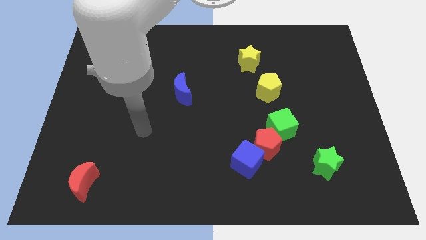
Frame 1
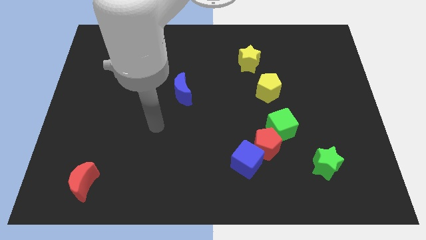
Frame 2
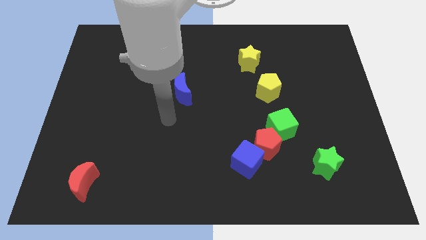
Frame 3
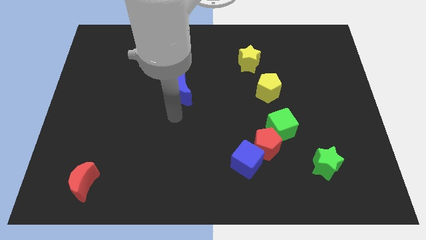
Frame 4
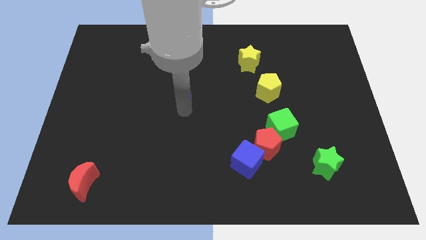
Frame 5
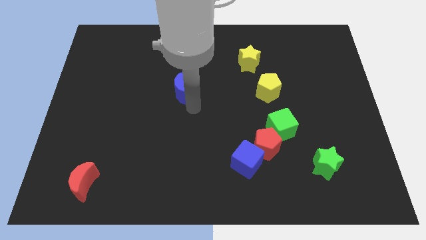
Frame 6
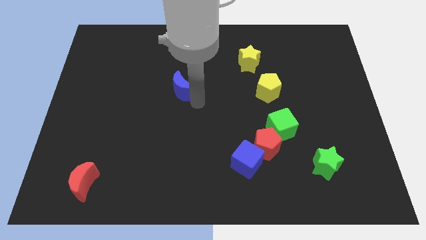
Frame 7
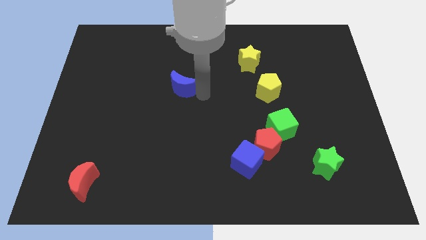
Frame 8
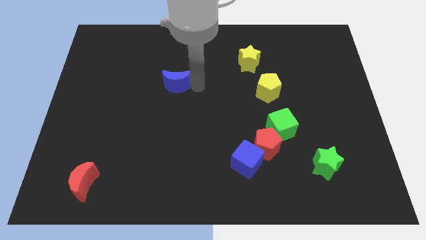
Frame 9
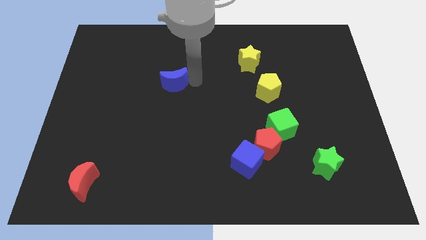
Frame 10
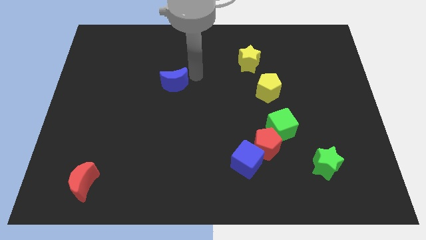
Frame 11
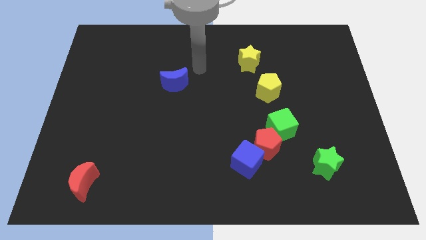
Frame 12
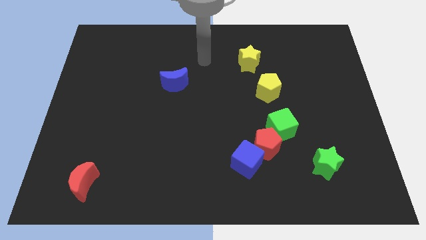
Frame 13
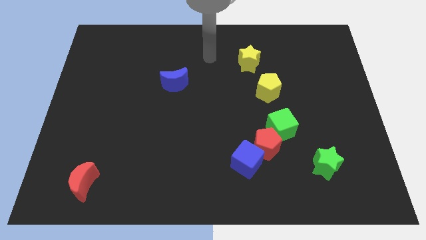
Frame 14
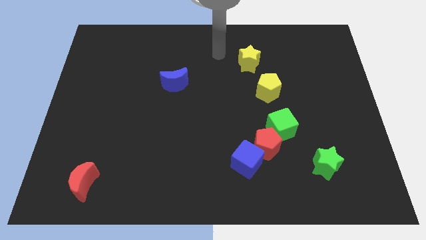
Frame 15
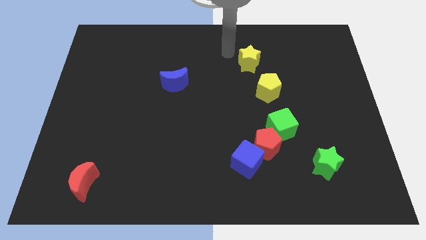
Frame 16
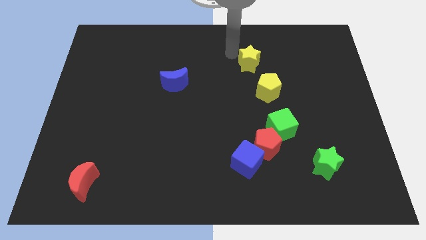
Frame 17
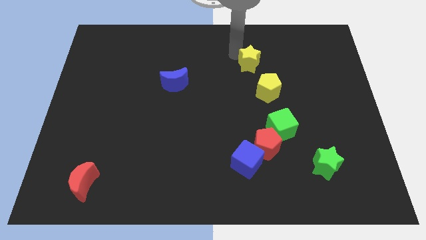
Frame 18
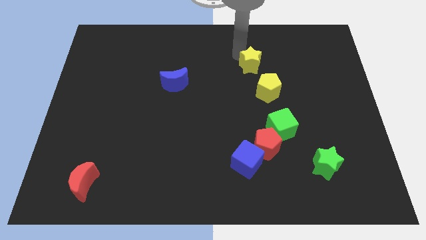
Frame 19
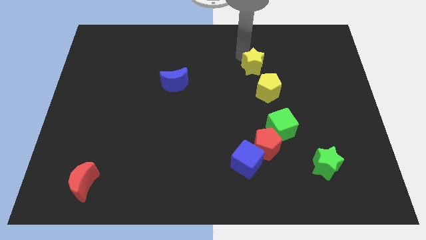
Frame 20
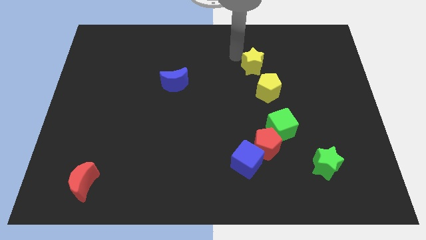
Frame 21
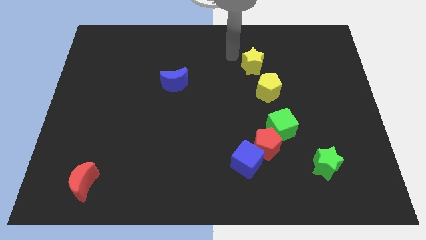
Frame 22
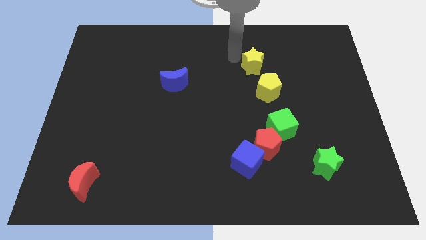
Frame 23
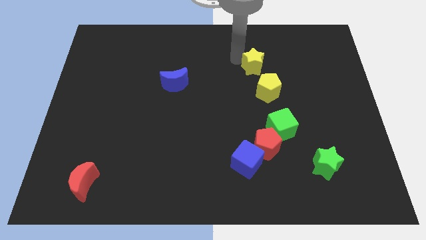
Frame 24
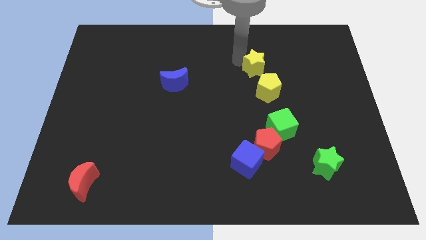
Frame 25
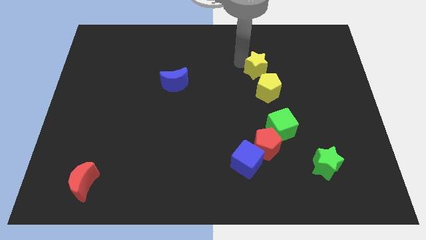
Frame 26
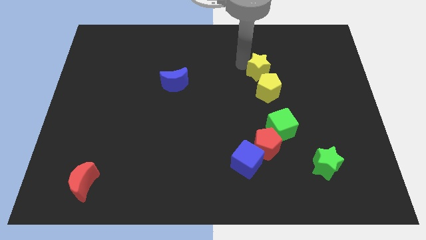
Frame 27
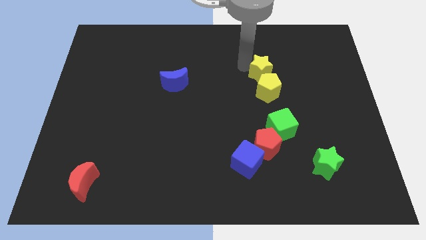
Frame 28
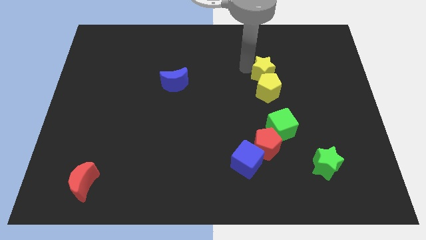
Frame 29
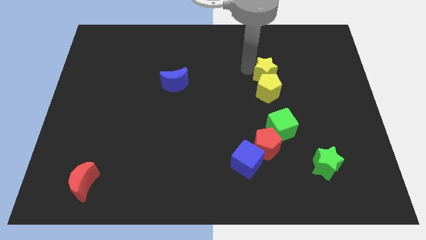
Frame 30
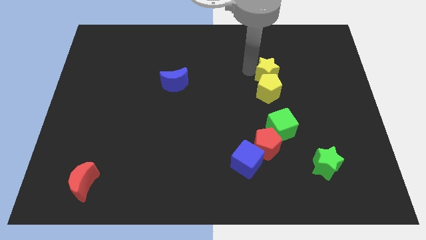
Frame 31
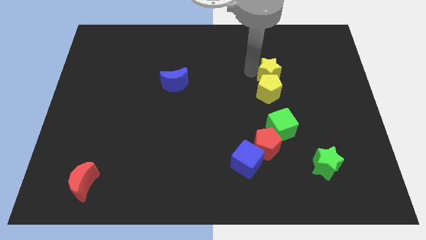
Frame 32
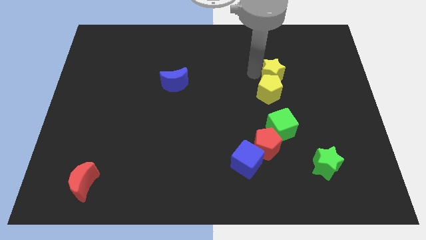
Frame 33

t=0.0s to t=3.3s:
move the yellow star a bit downwards and right

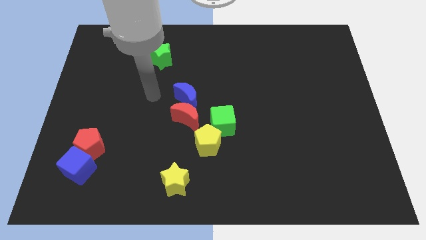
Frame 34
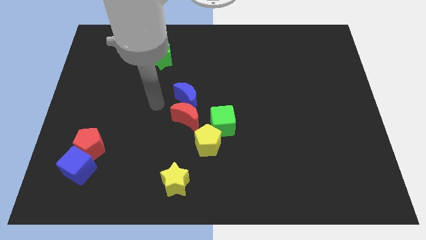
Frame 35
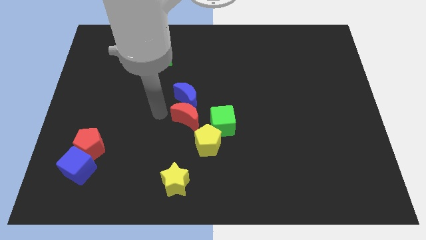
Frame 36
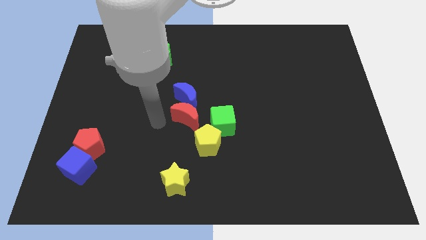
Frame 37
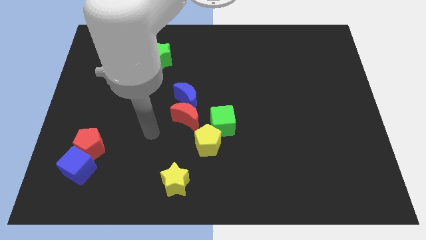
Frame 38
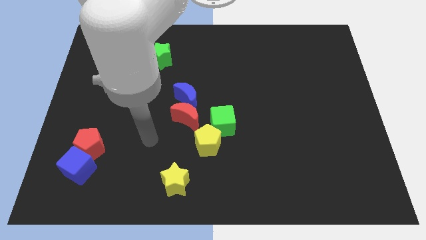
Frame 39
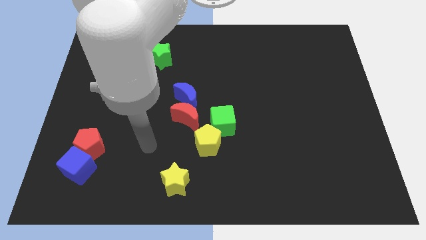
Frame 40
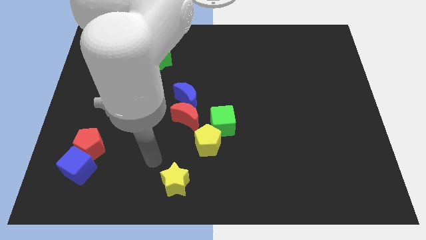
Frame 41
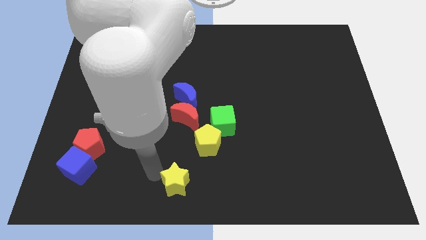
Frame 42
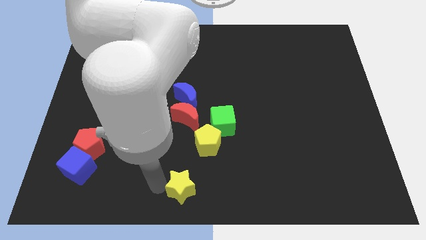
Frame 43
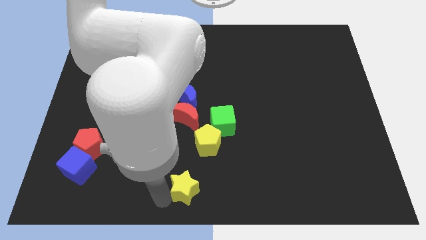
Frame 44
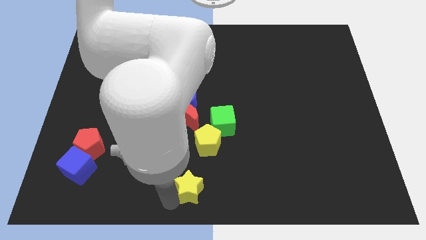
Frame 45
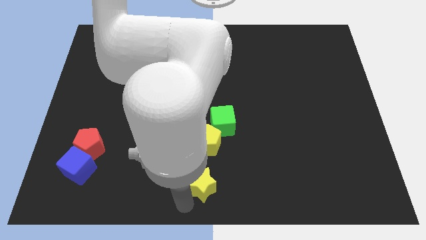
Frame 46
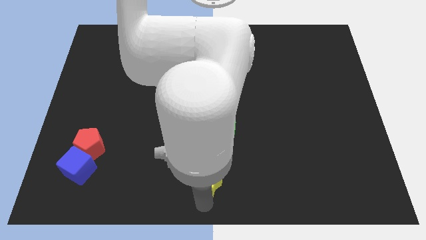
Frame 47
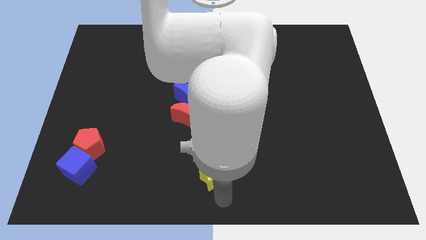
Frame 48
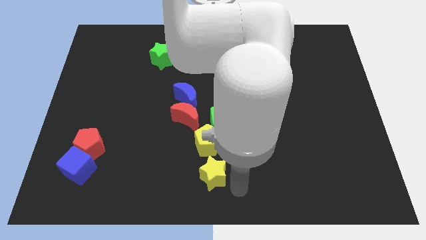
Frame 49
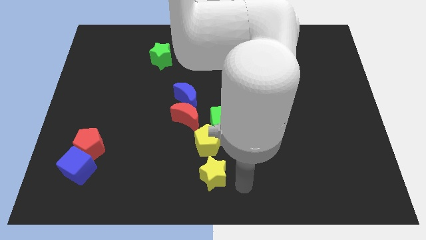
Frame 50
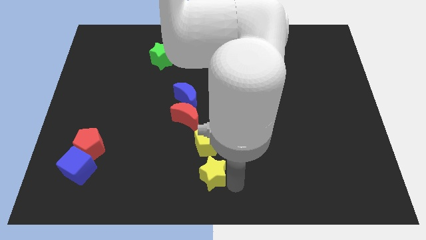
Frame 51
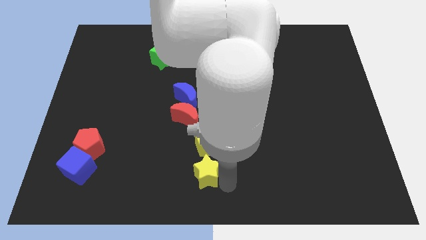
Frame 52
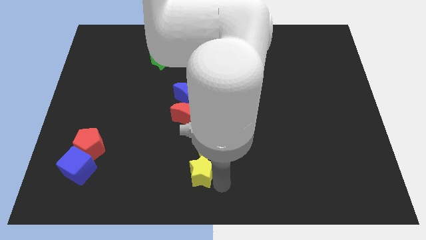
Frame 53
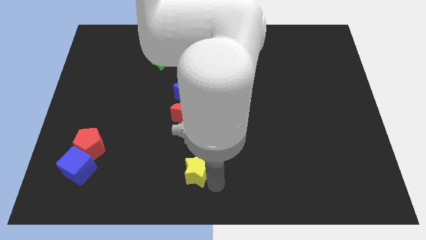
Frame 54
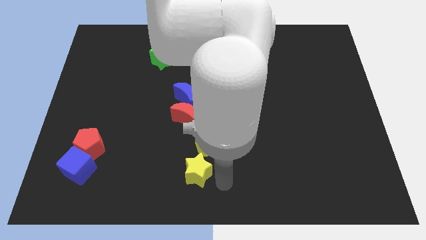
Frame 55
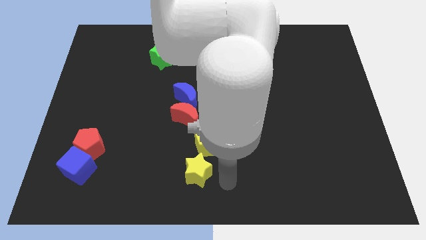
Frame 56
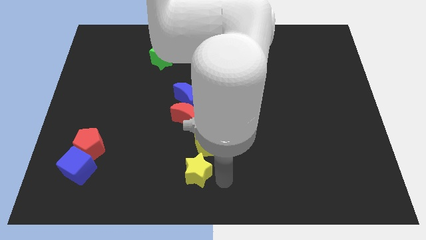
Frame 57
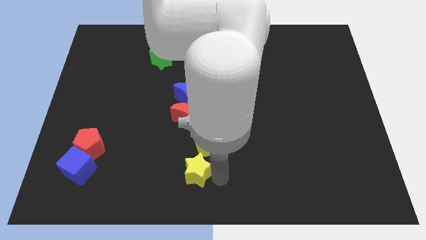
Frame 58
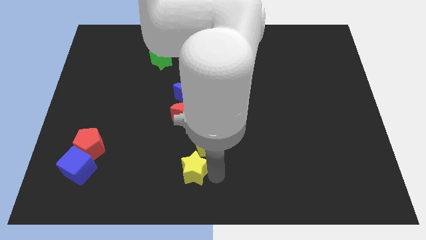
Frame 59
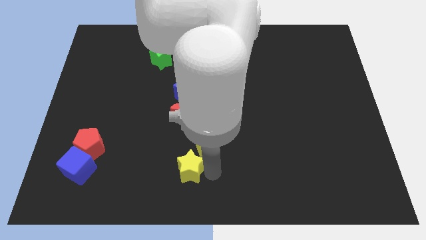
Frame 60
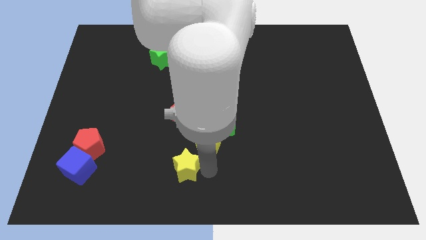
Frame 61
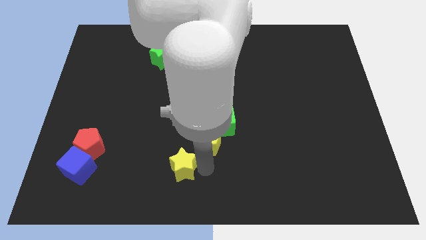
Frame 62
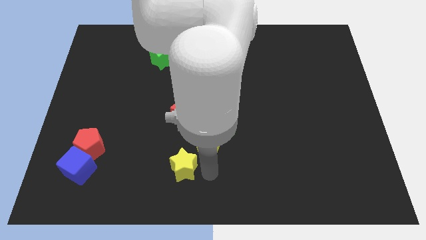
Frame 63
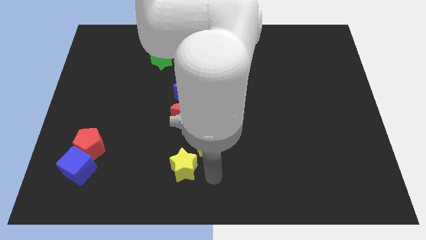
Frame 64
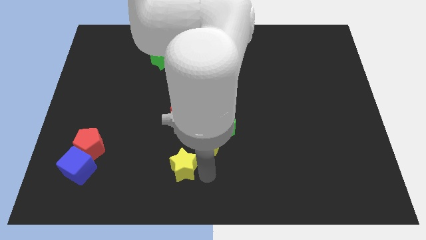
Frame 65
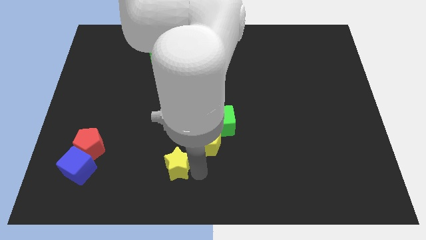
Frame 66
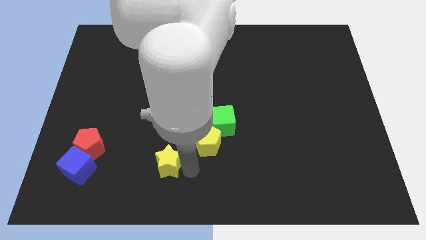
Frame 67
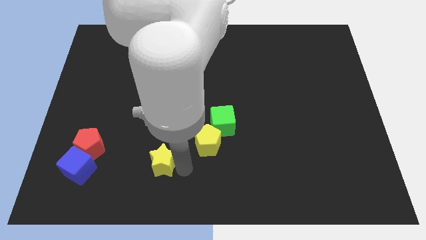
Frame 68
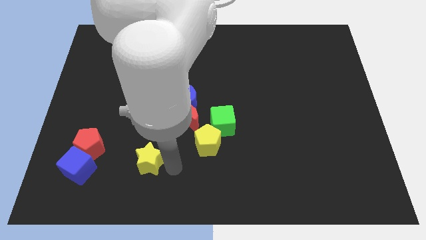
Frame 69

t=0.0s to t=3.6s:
move the yellow star a bit up and then to the left

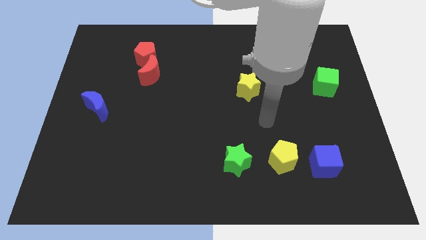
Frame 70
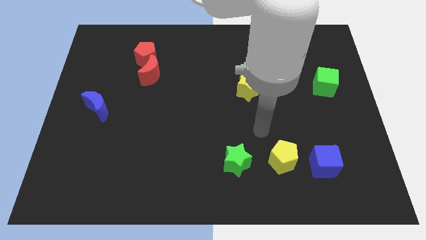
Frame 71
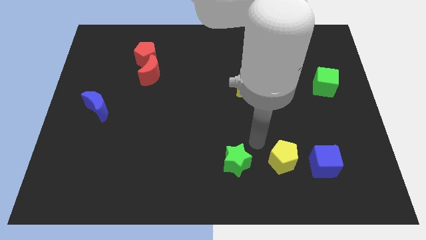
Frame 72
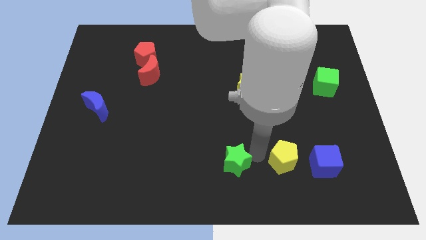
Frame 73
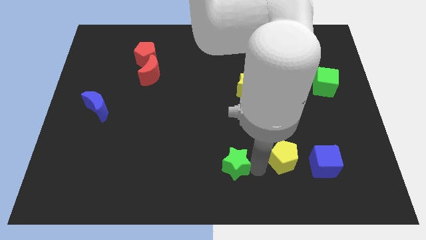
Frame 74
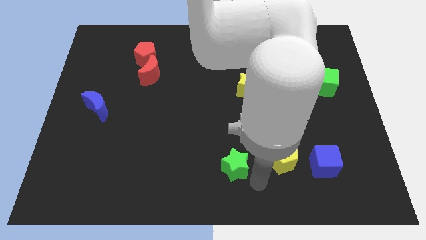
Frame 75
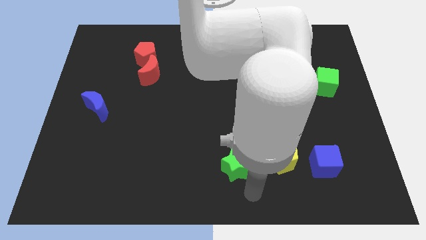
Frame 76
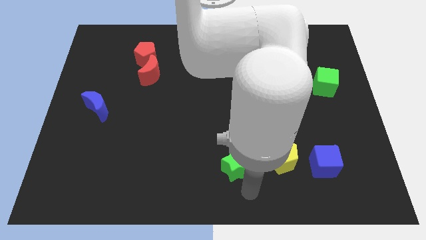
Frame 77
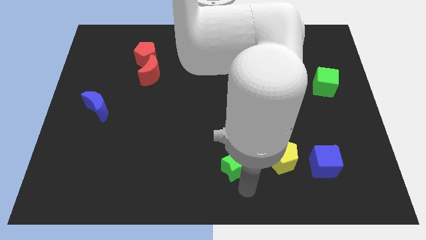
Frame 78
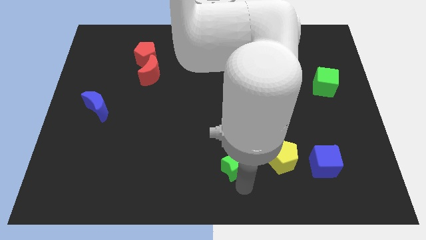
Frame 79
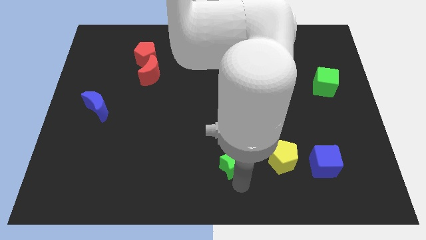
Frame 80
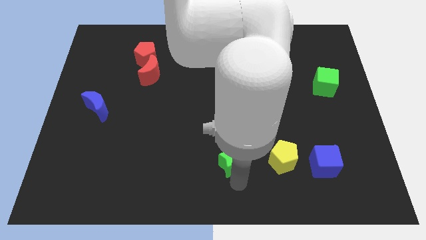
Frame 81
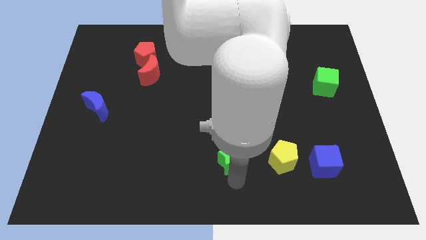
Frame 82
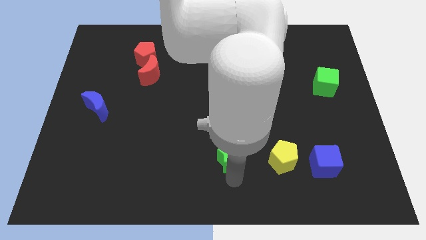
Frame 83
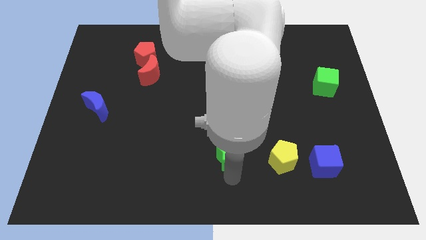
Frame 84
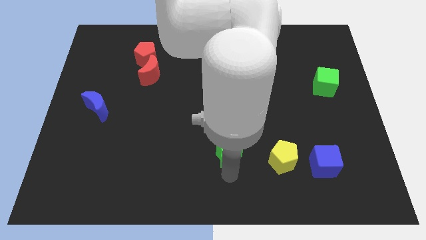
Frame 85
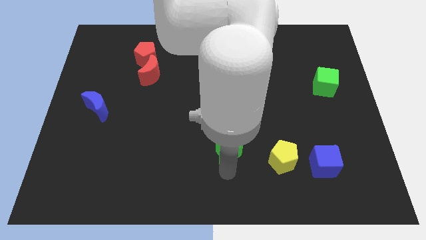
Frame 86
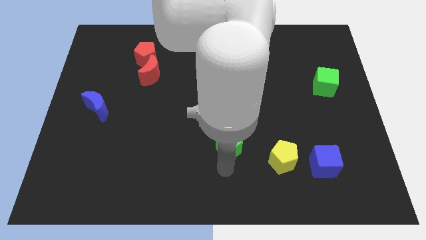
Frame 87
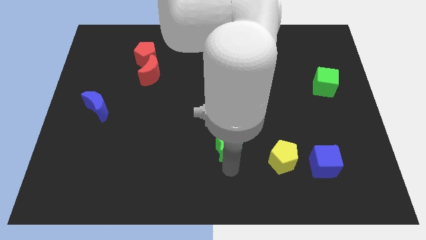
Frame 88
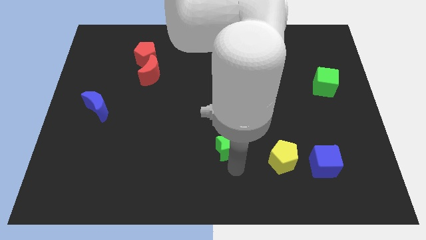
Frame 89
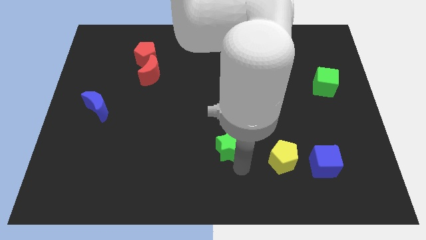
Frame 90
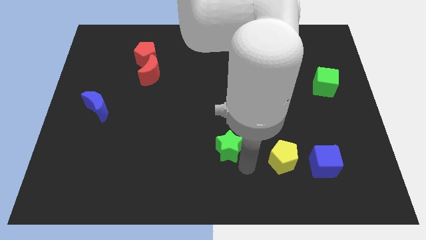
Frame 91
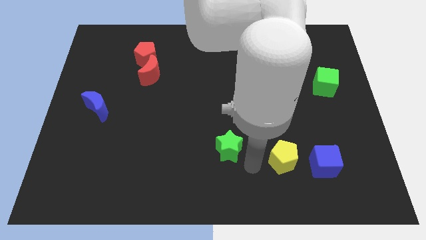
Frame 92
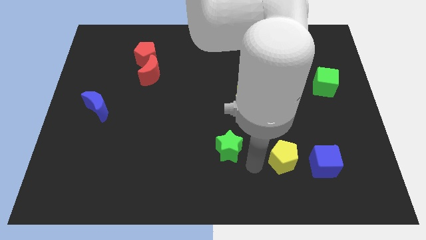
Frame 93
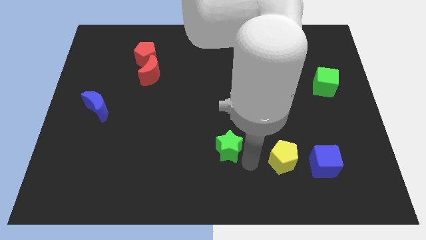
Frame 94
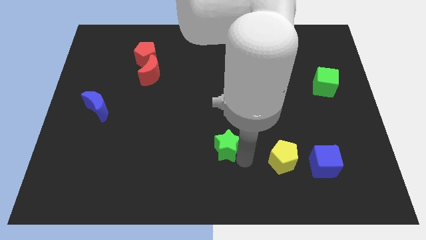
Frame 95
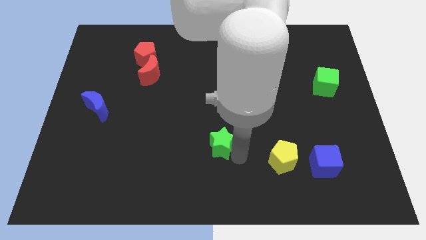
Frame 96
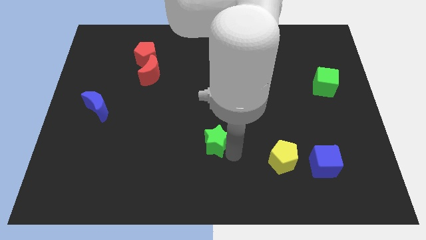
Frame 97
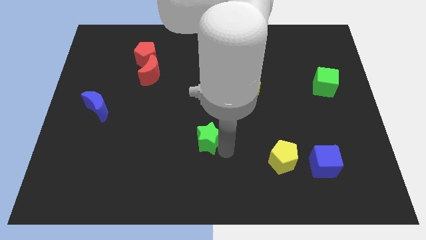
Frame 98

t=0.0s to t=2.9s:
slightly move the green star up and left diagonally
